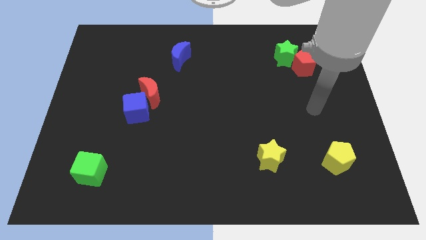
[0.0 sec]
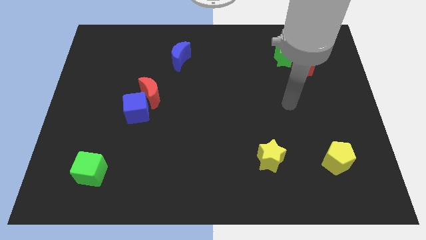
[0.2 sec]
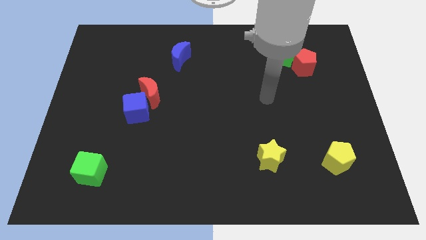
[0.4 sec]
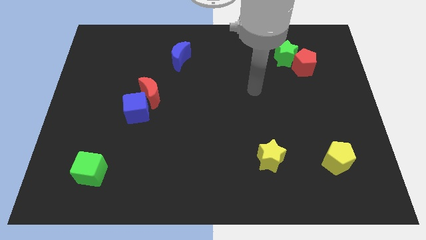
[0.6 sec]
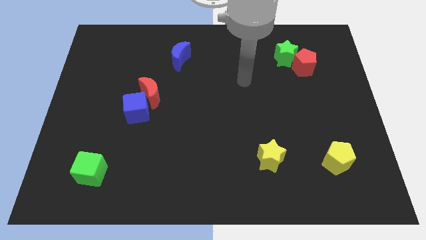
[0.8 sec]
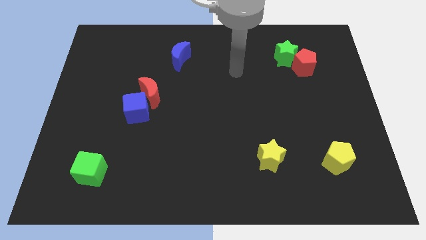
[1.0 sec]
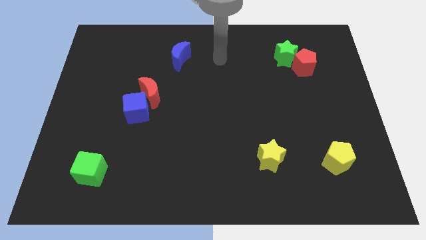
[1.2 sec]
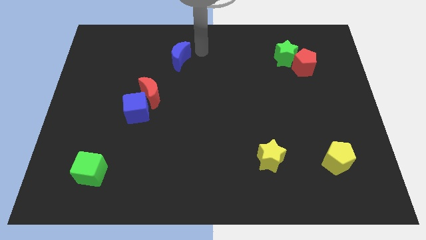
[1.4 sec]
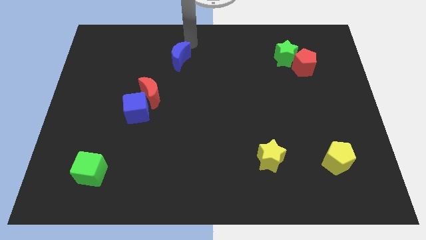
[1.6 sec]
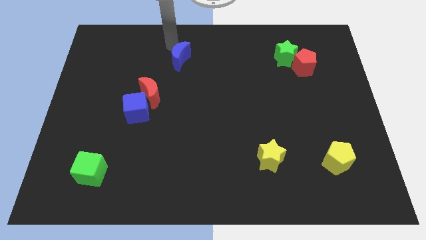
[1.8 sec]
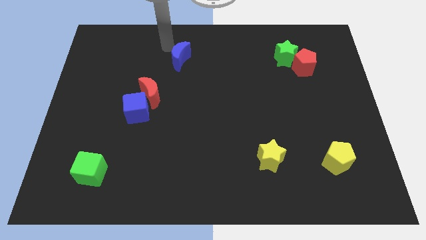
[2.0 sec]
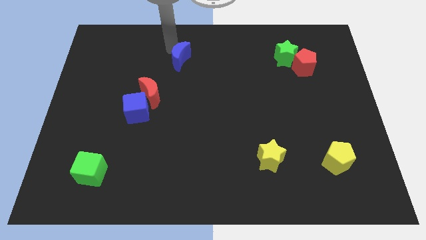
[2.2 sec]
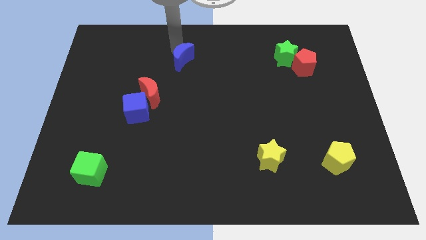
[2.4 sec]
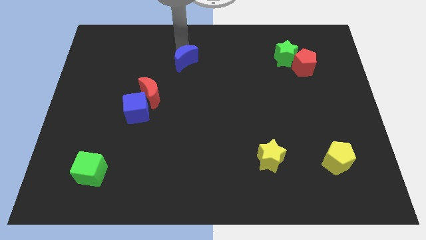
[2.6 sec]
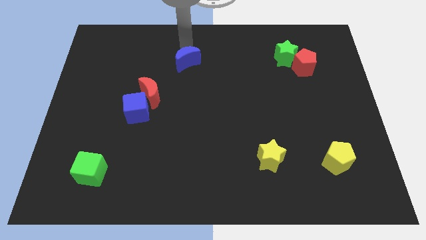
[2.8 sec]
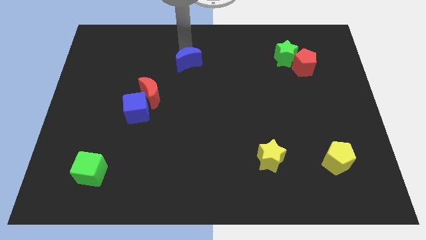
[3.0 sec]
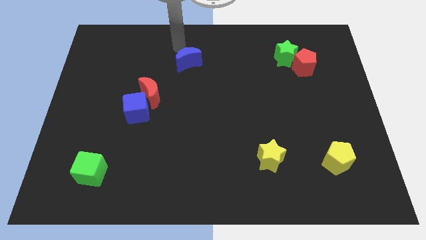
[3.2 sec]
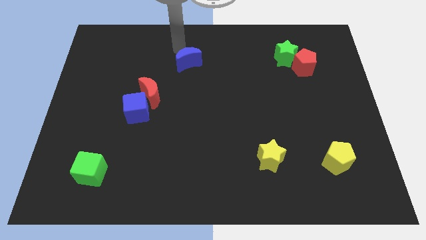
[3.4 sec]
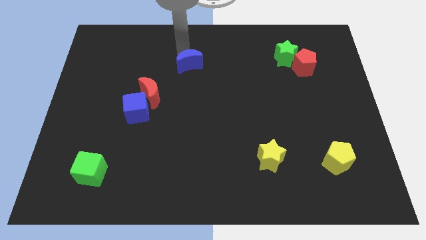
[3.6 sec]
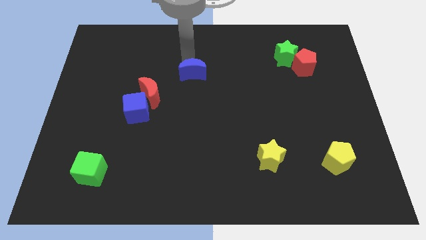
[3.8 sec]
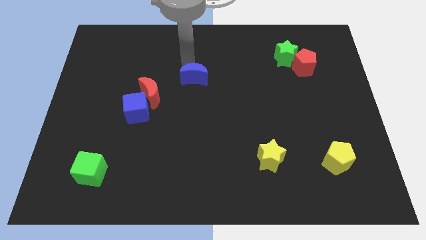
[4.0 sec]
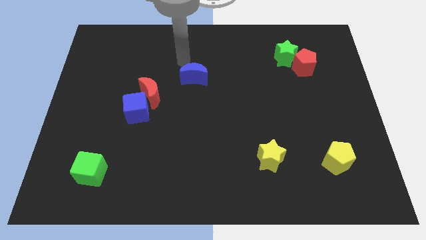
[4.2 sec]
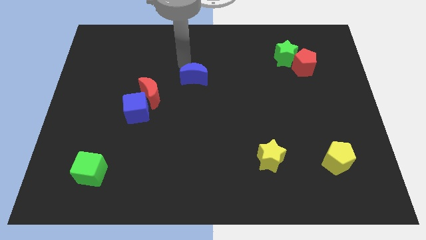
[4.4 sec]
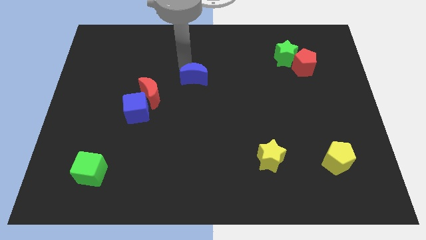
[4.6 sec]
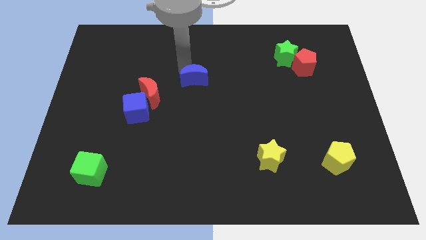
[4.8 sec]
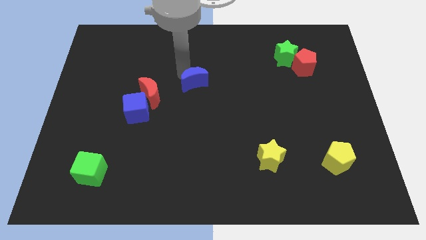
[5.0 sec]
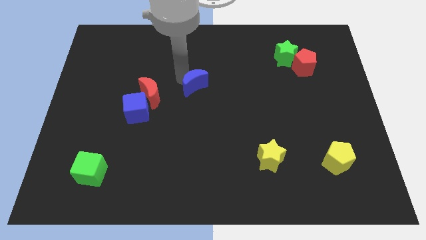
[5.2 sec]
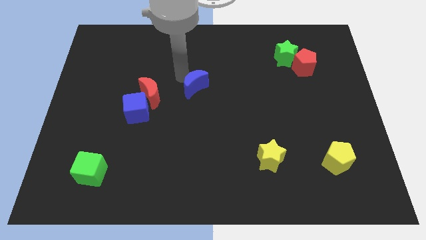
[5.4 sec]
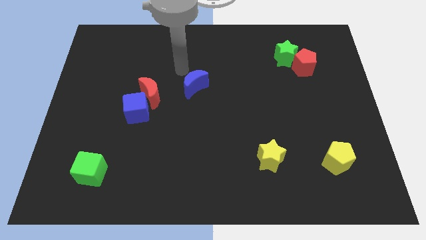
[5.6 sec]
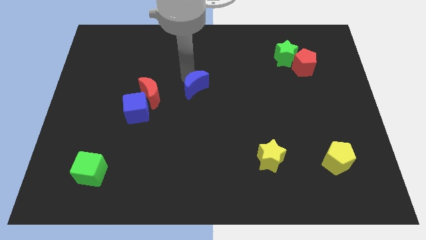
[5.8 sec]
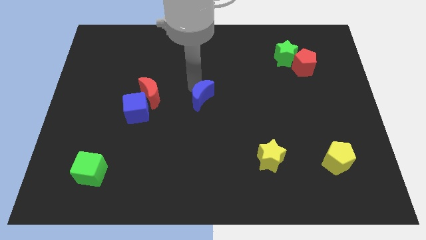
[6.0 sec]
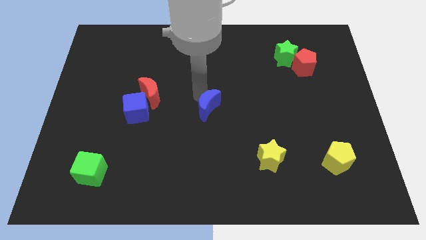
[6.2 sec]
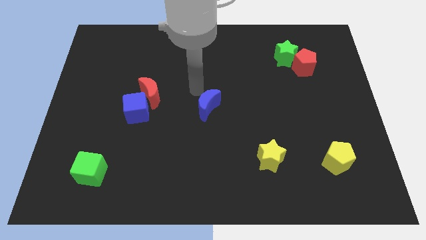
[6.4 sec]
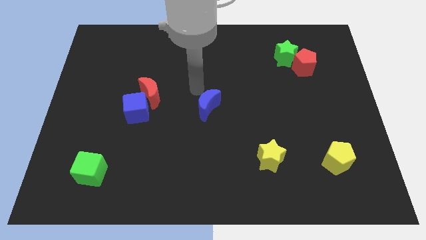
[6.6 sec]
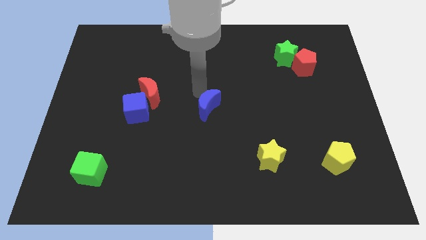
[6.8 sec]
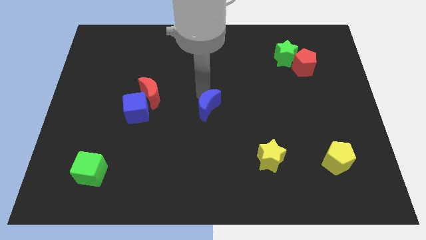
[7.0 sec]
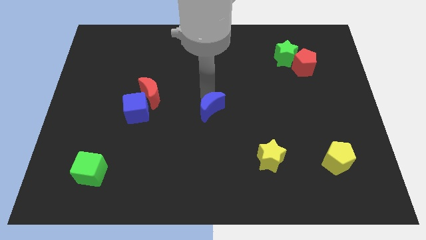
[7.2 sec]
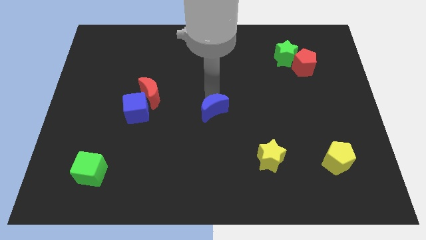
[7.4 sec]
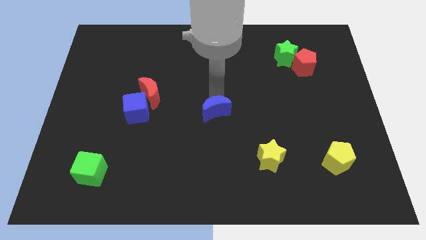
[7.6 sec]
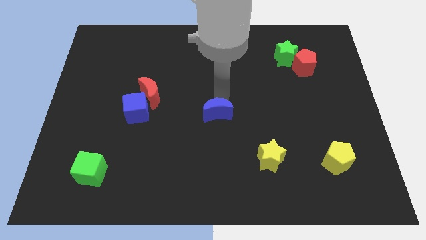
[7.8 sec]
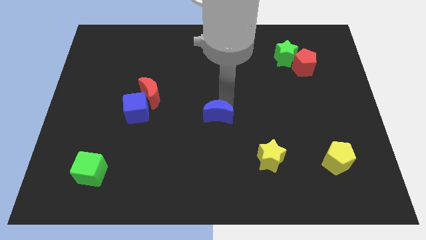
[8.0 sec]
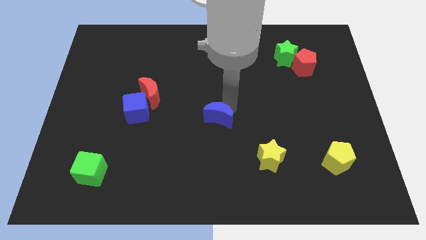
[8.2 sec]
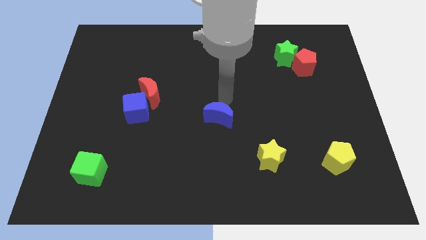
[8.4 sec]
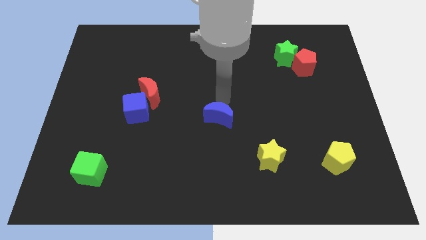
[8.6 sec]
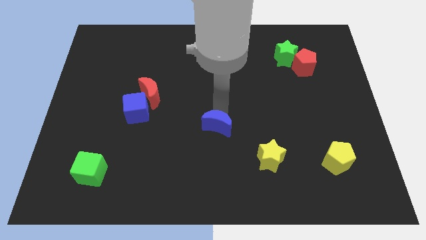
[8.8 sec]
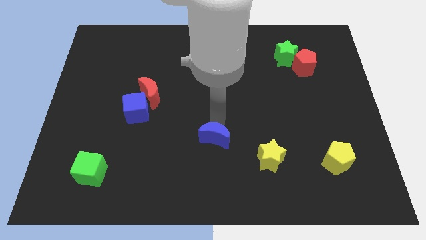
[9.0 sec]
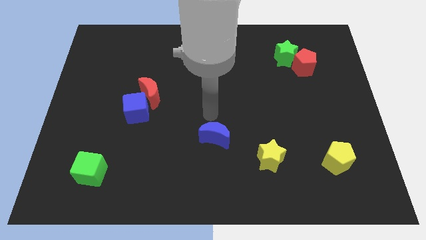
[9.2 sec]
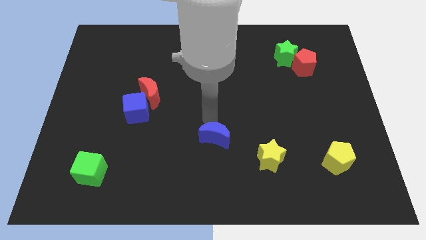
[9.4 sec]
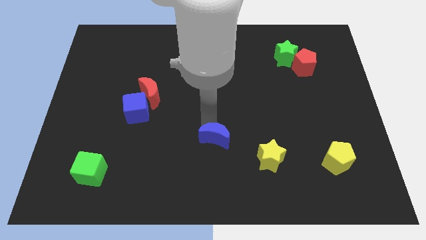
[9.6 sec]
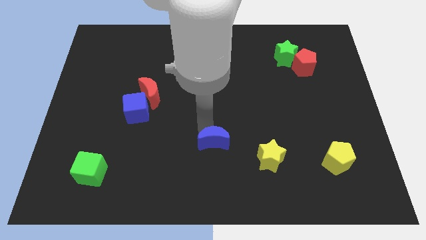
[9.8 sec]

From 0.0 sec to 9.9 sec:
slide the blue moon to the left side of the yellow star

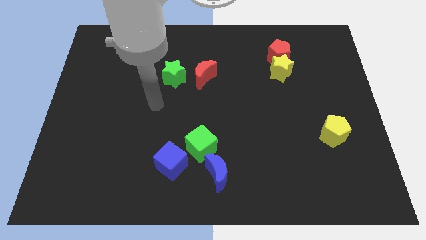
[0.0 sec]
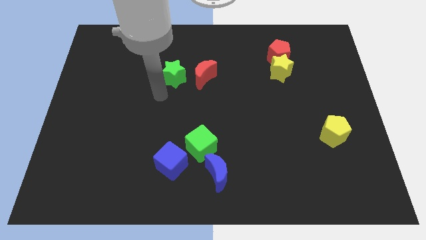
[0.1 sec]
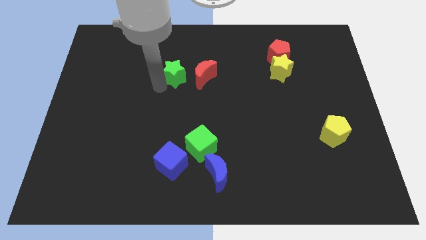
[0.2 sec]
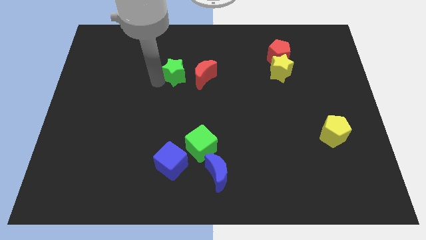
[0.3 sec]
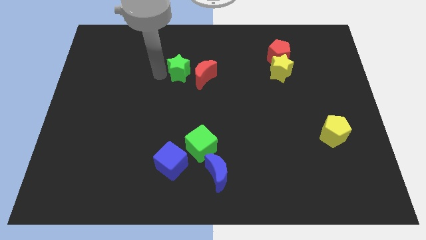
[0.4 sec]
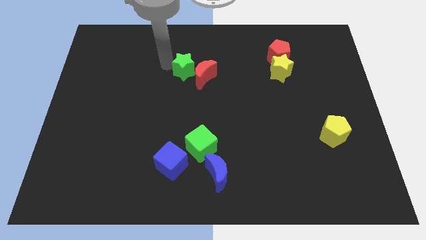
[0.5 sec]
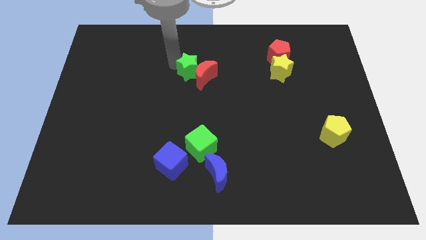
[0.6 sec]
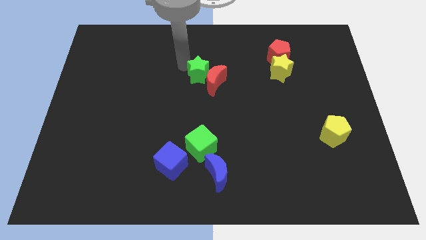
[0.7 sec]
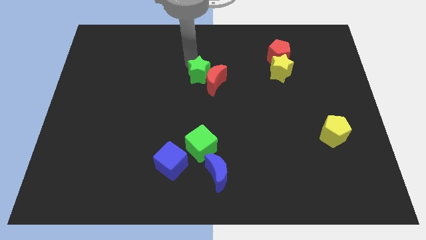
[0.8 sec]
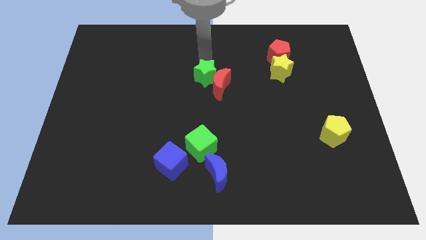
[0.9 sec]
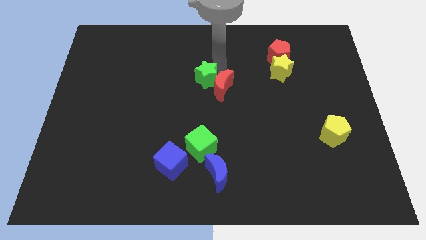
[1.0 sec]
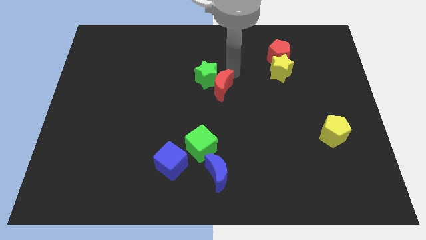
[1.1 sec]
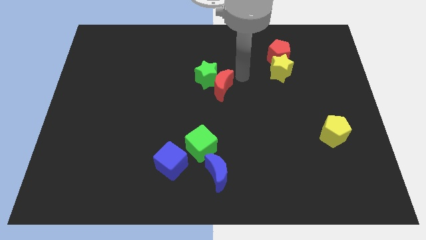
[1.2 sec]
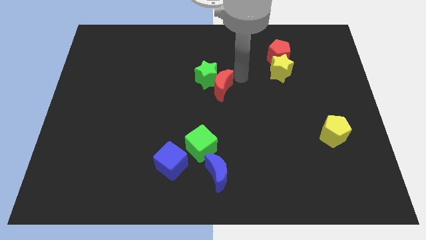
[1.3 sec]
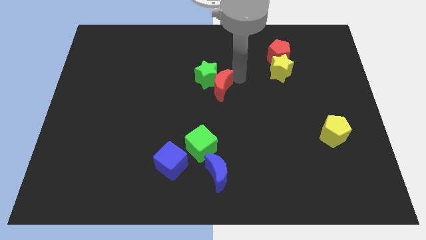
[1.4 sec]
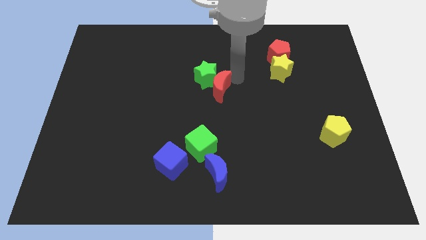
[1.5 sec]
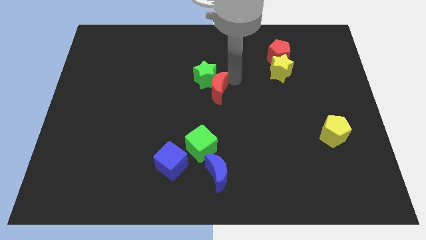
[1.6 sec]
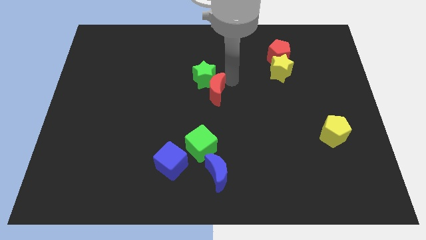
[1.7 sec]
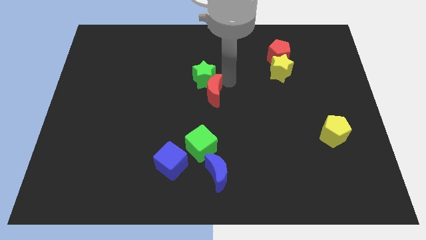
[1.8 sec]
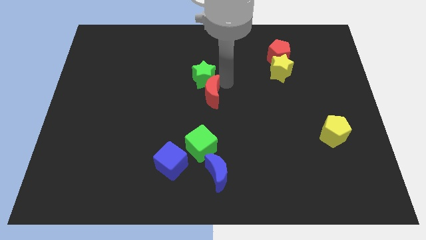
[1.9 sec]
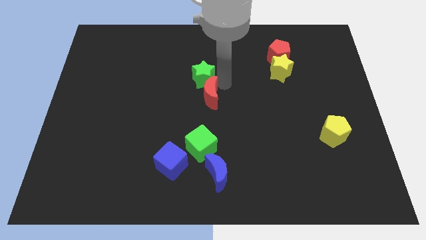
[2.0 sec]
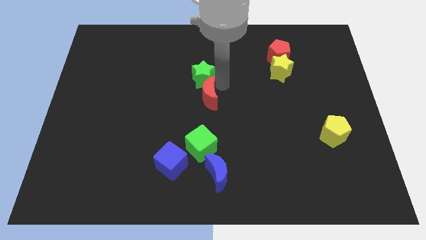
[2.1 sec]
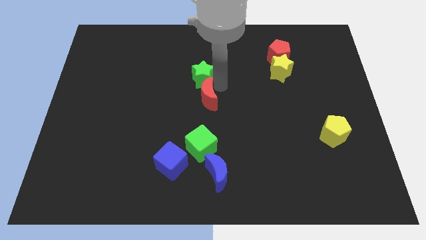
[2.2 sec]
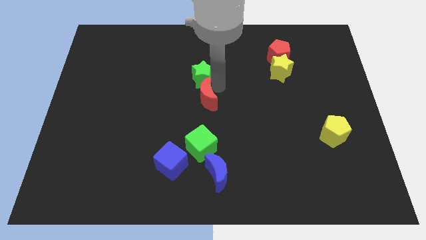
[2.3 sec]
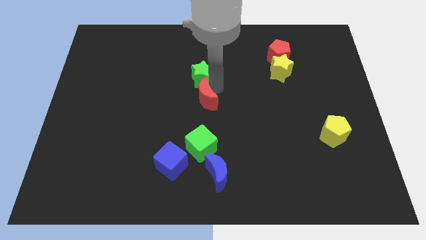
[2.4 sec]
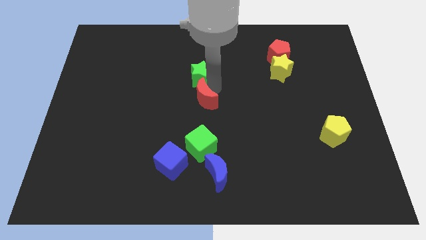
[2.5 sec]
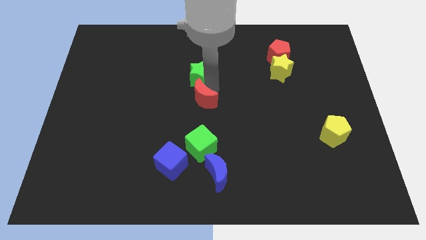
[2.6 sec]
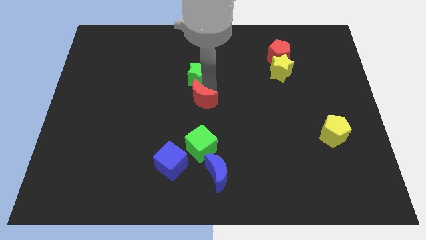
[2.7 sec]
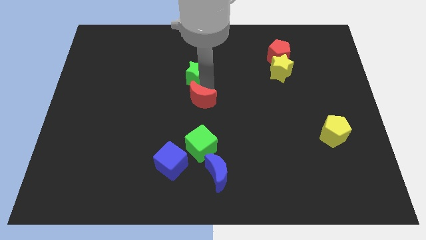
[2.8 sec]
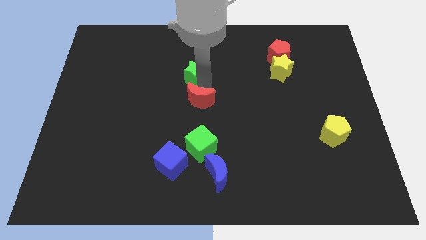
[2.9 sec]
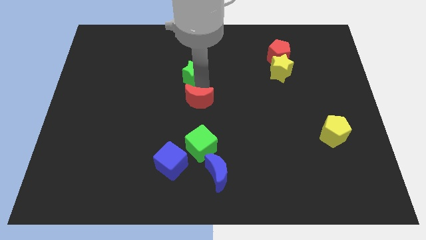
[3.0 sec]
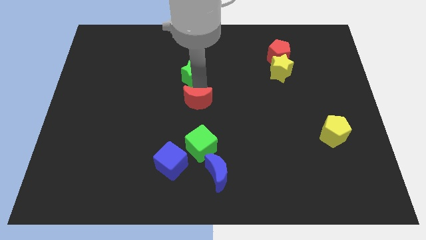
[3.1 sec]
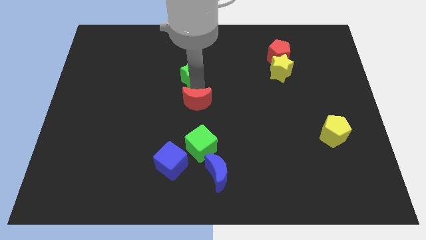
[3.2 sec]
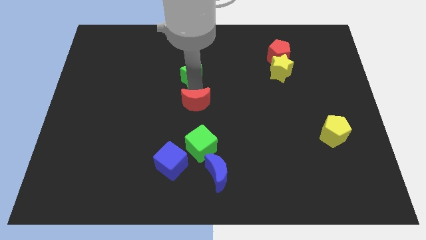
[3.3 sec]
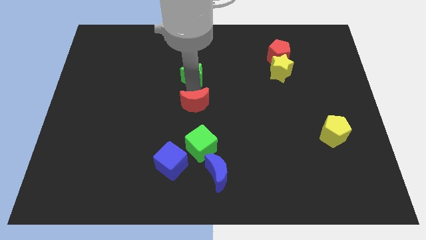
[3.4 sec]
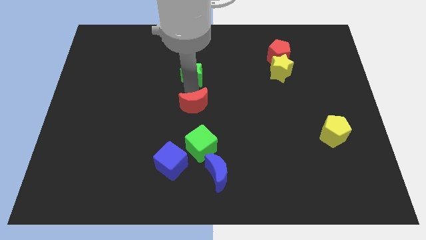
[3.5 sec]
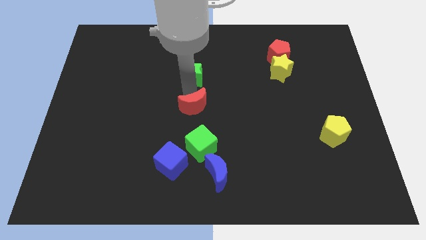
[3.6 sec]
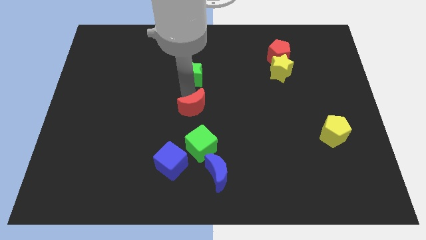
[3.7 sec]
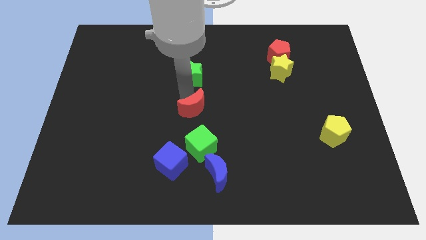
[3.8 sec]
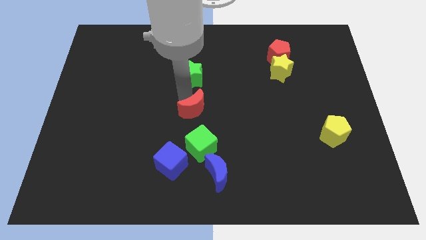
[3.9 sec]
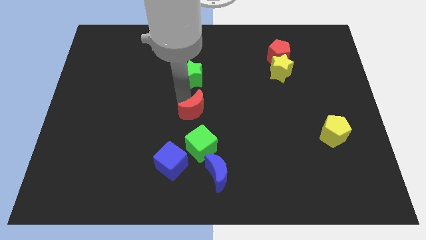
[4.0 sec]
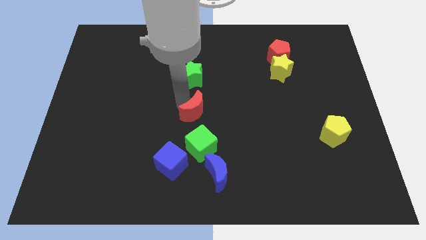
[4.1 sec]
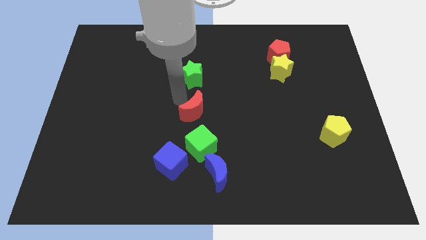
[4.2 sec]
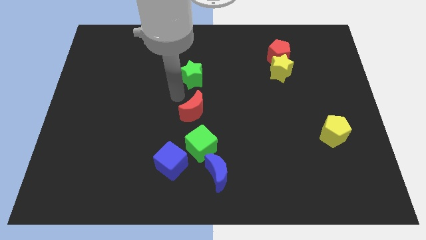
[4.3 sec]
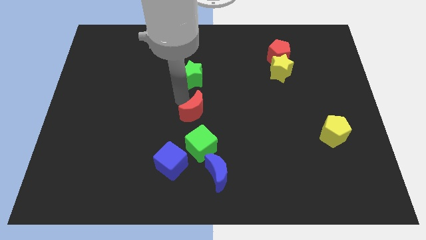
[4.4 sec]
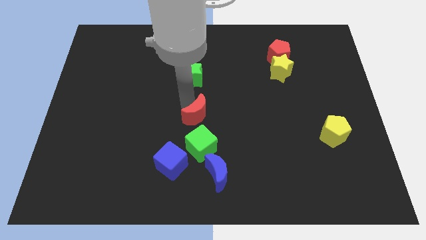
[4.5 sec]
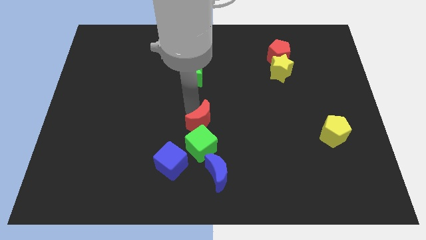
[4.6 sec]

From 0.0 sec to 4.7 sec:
put the red moon to the top side of the blue moon
